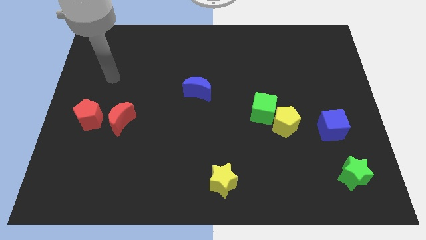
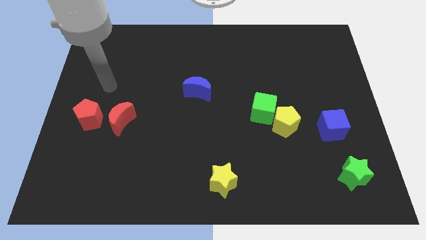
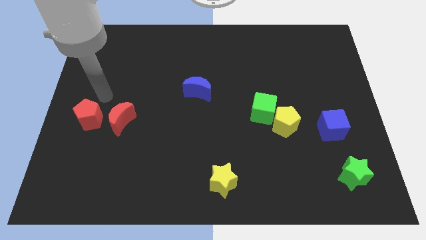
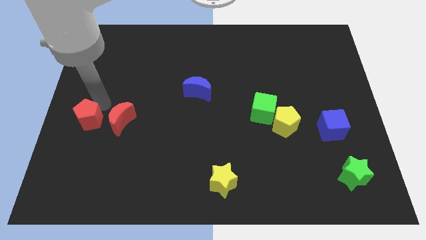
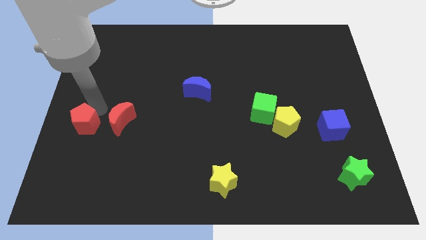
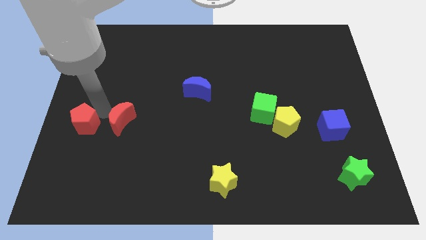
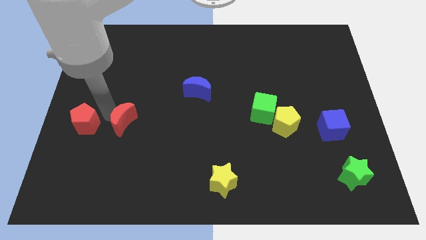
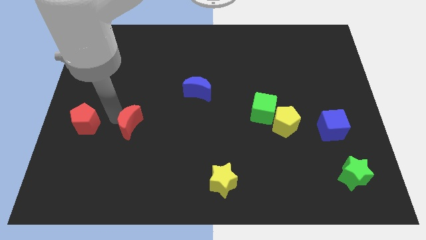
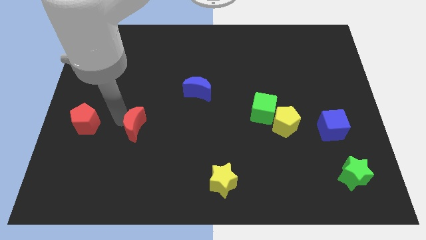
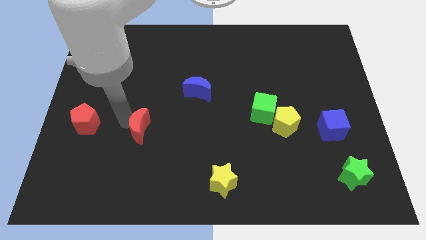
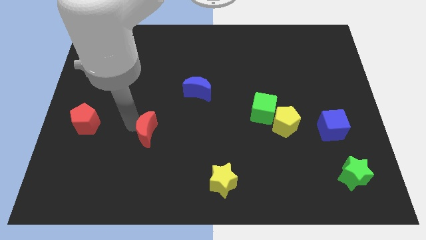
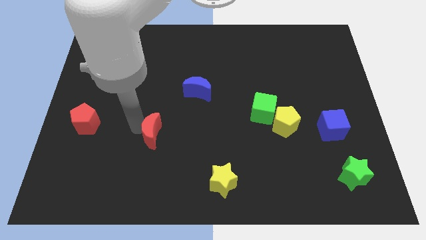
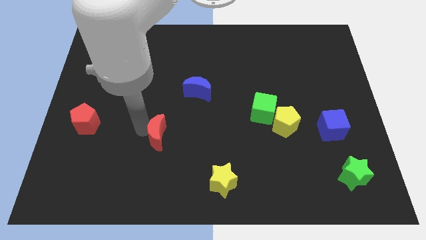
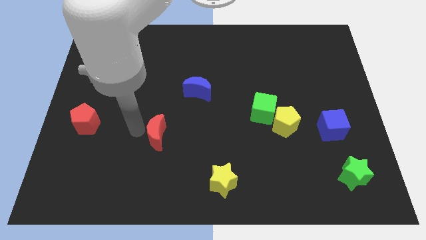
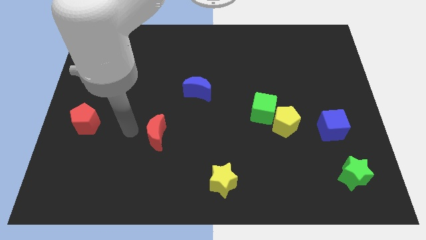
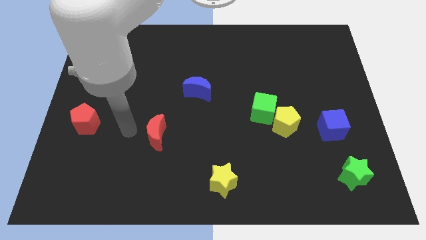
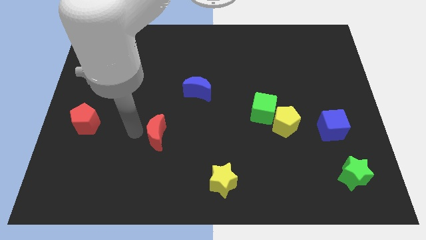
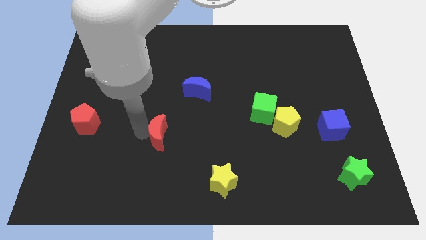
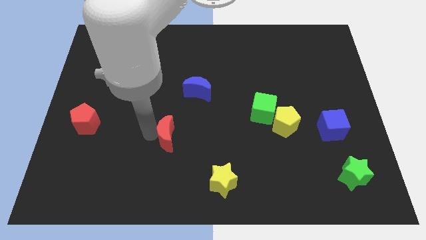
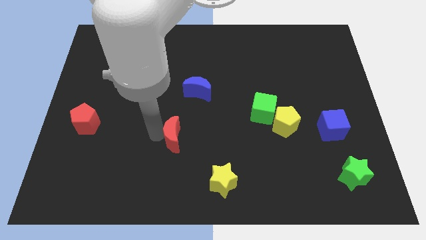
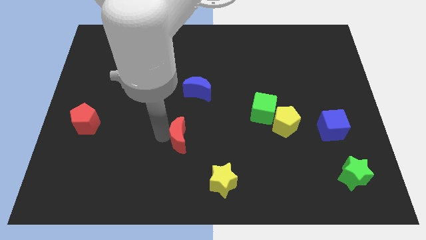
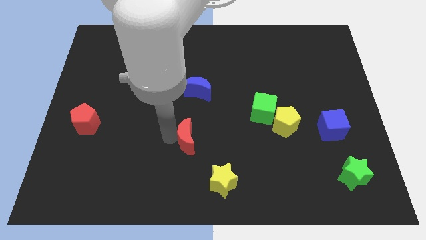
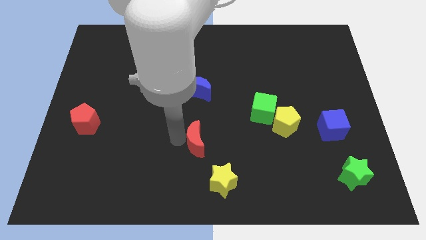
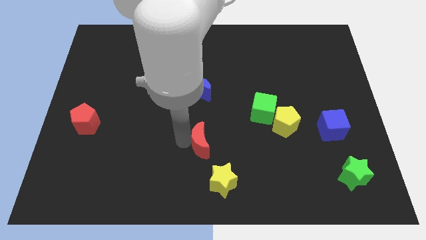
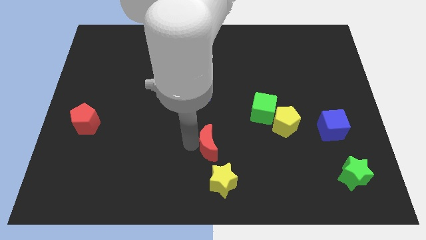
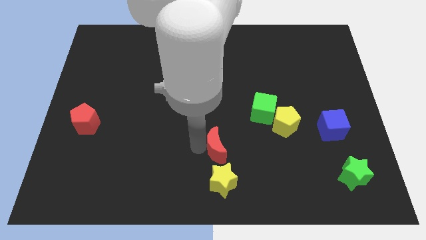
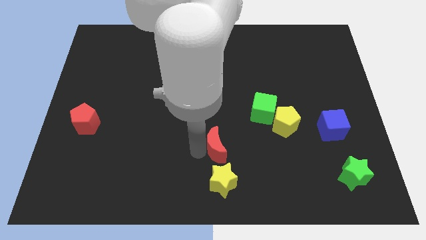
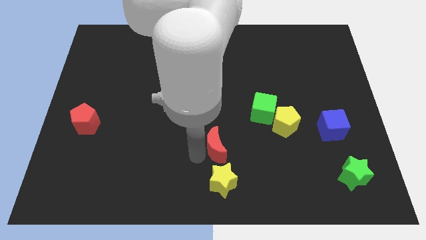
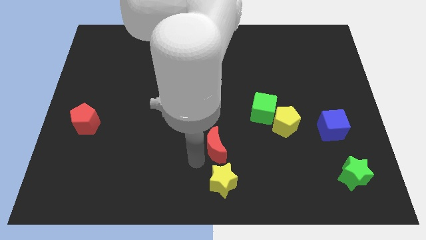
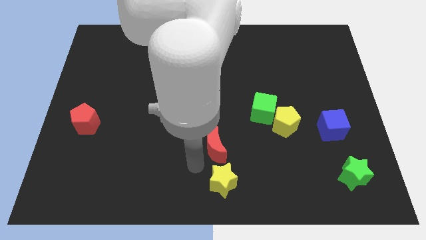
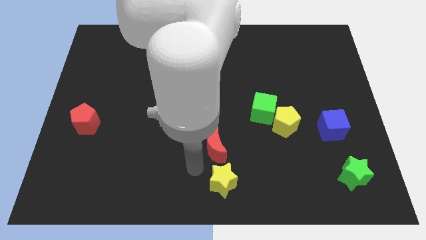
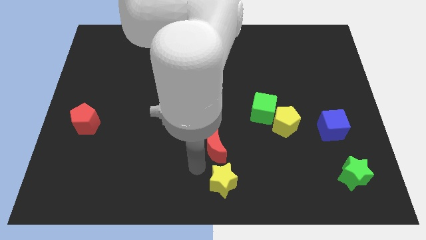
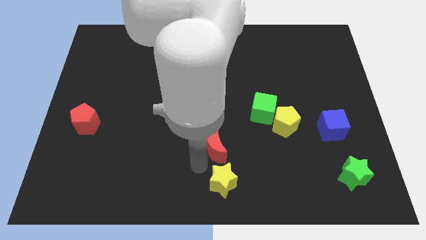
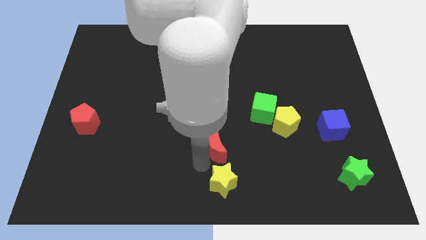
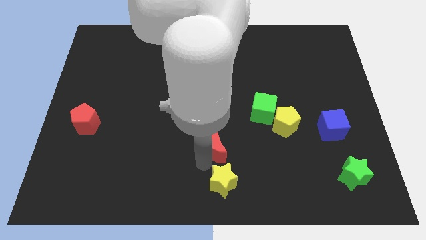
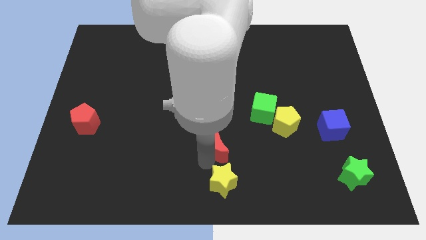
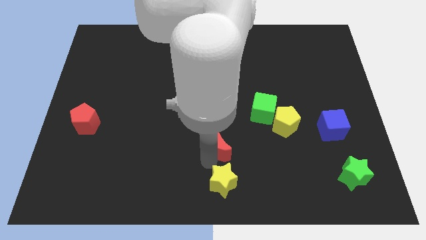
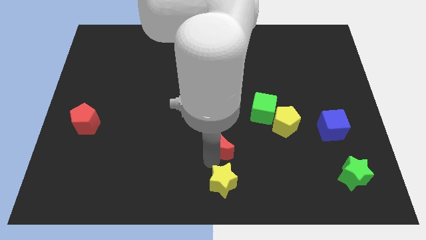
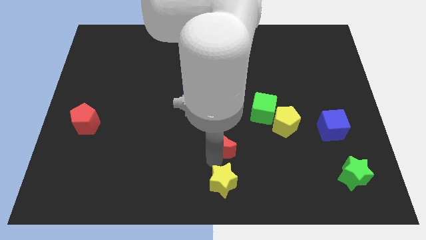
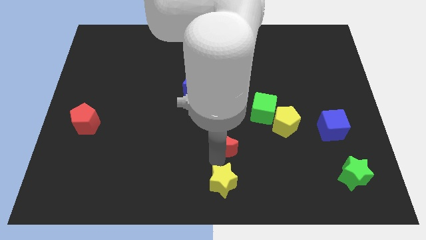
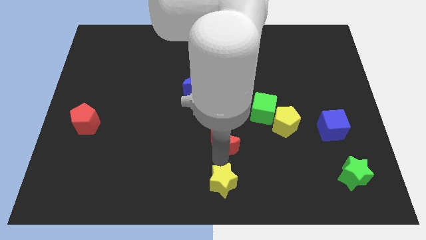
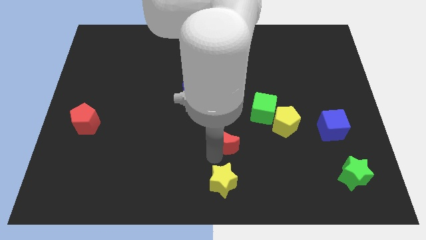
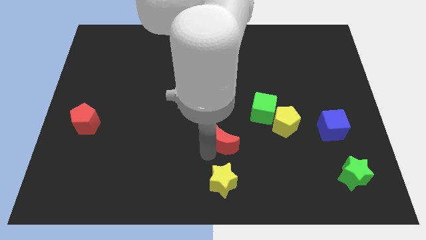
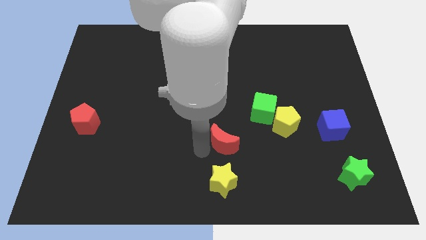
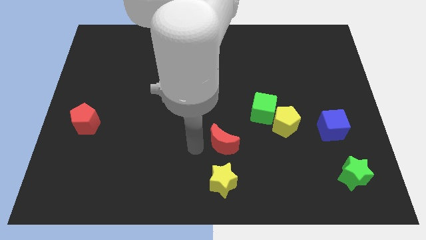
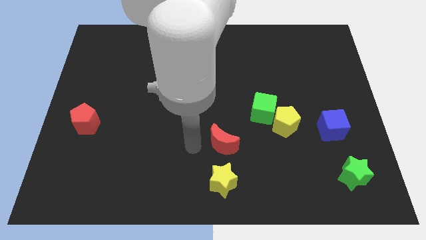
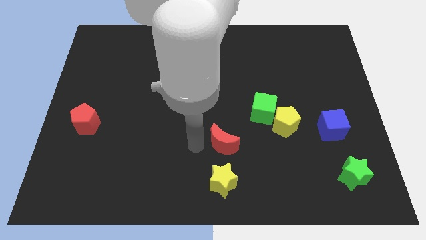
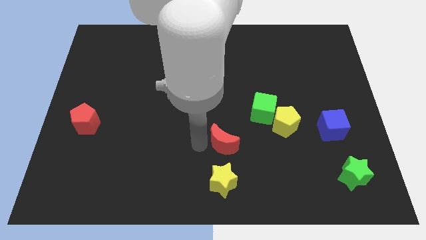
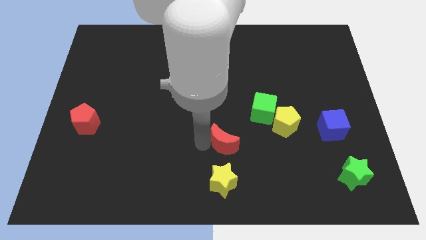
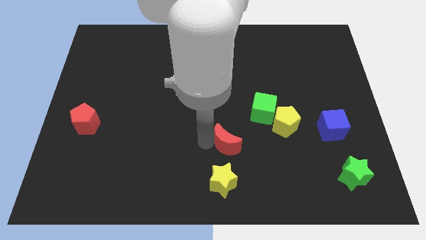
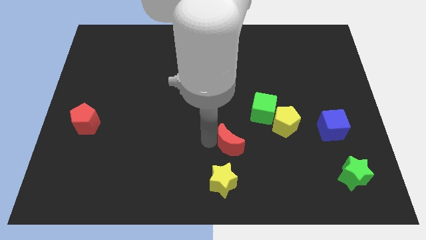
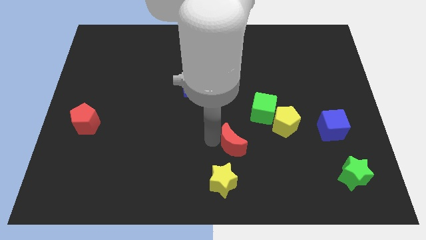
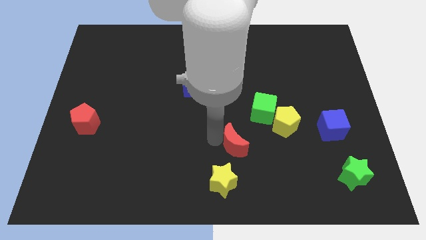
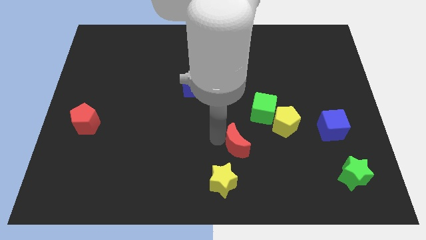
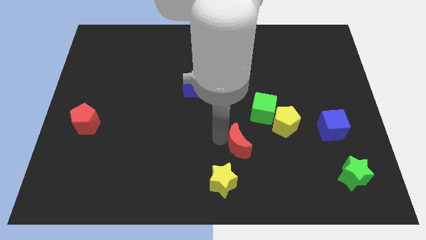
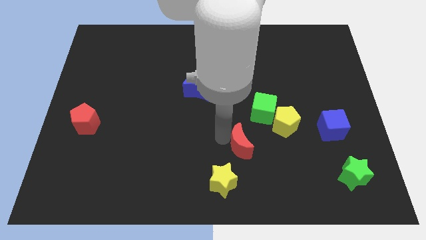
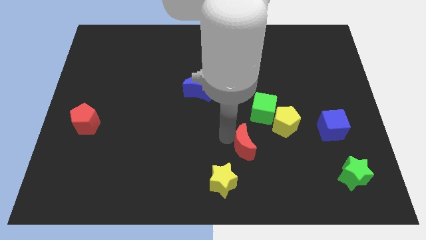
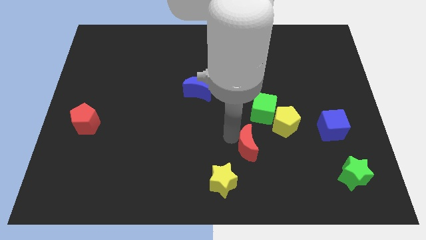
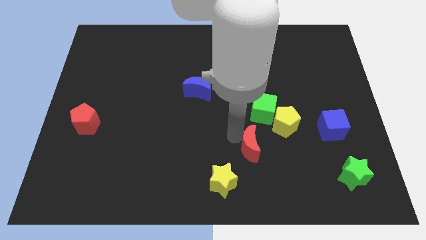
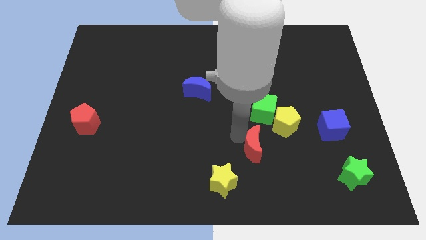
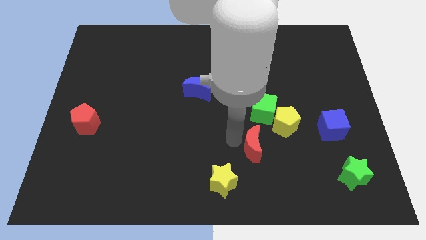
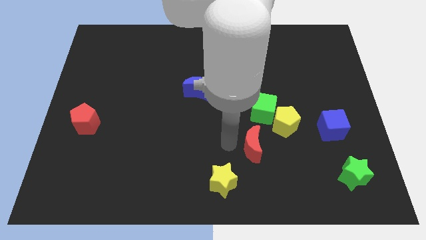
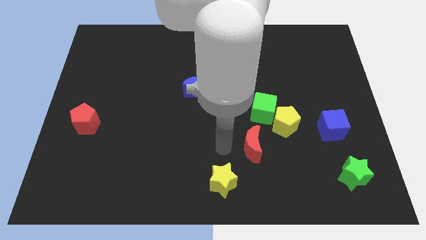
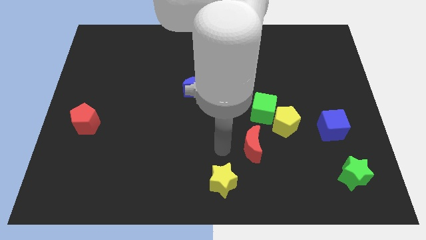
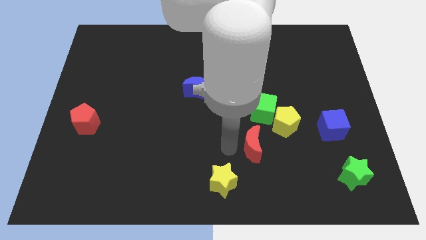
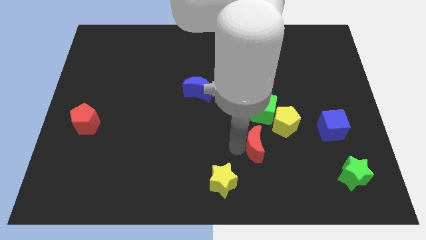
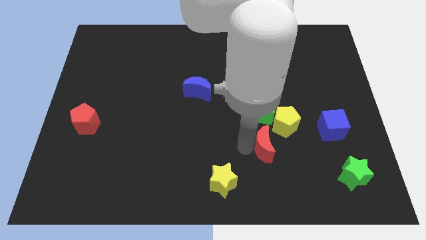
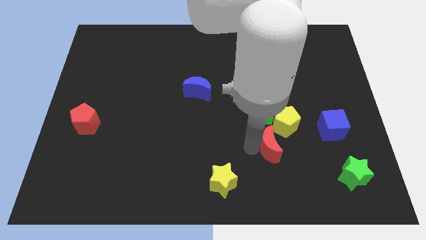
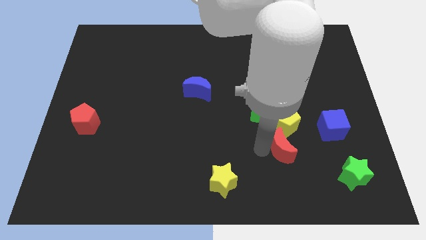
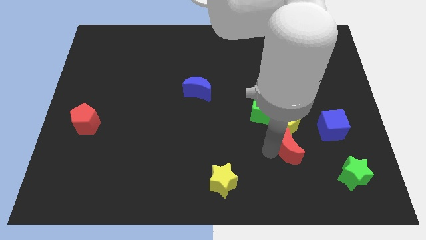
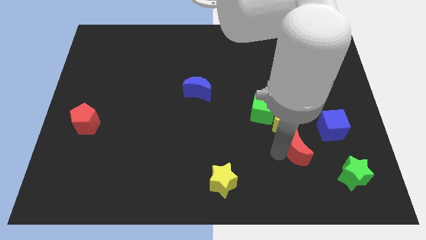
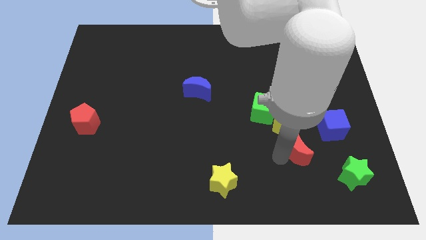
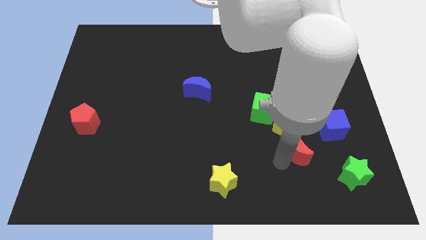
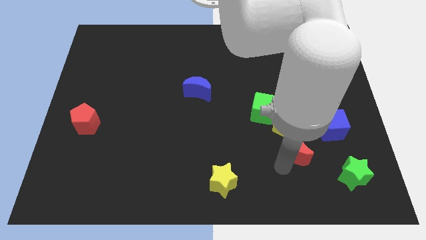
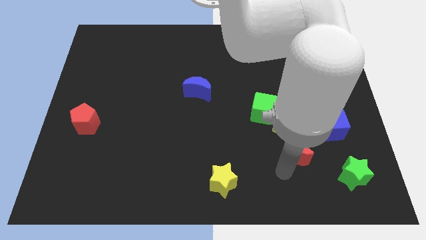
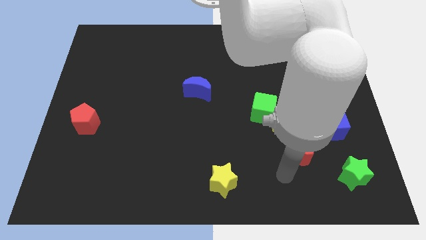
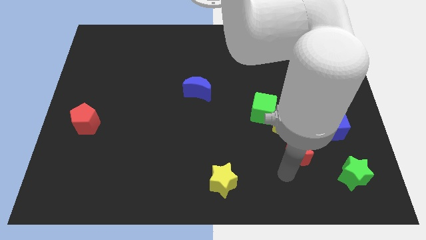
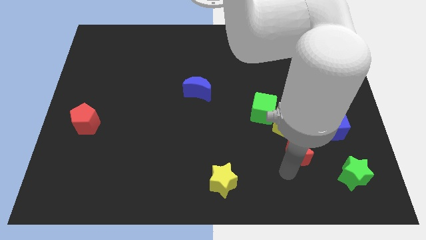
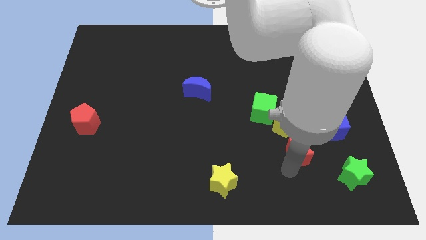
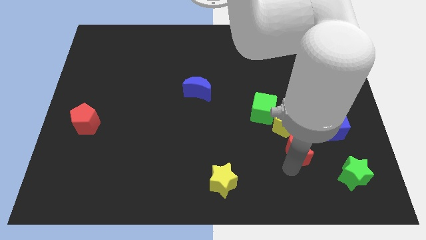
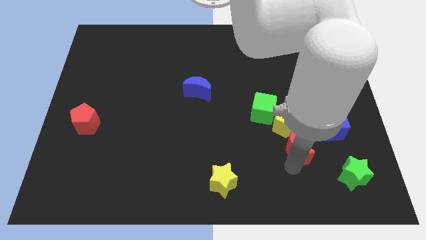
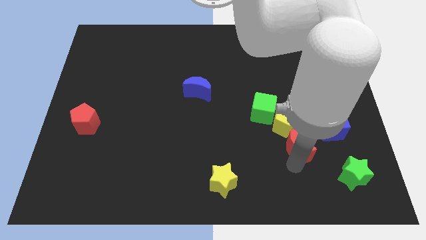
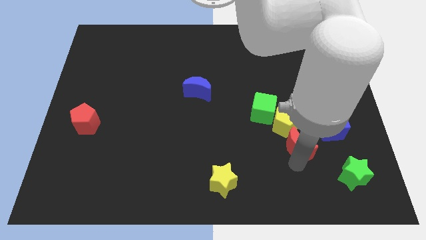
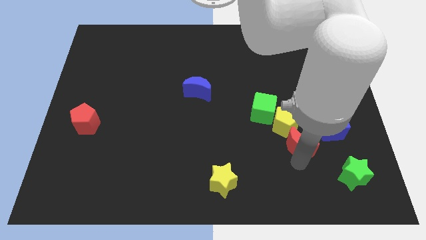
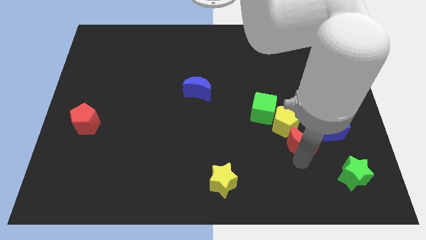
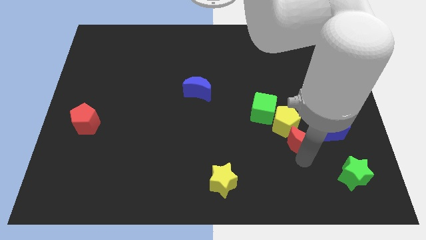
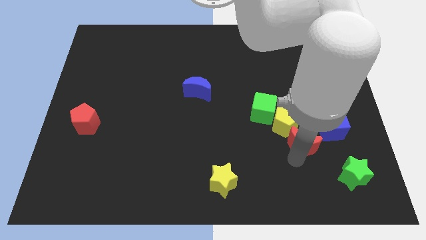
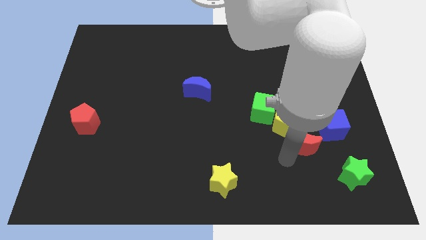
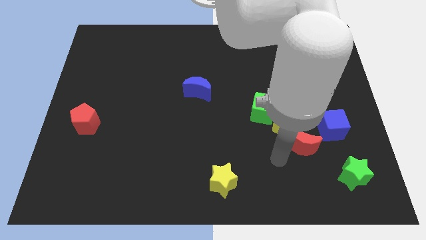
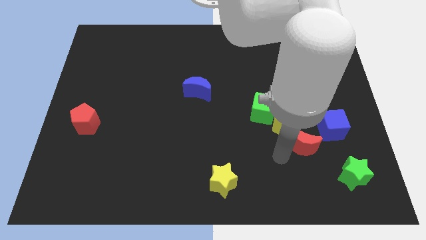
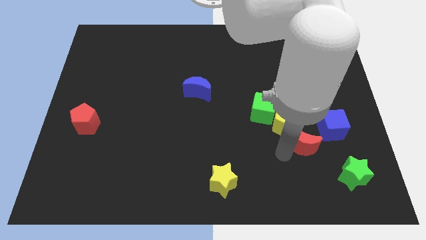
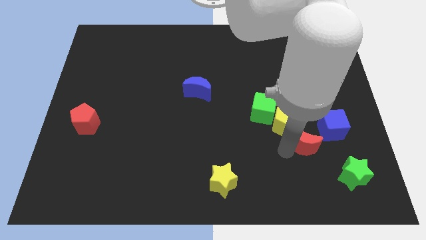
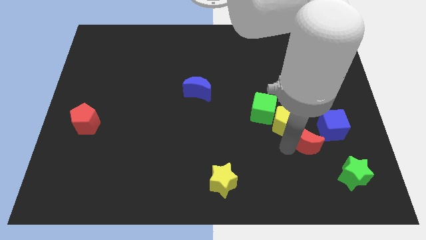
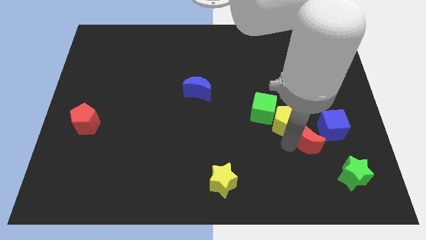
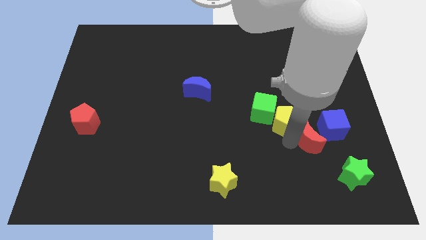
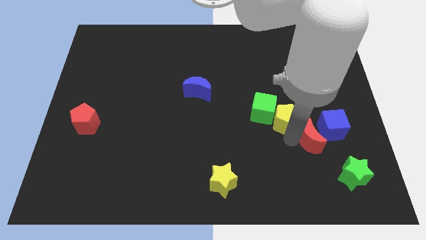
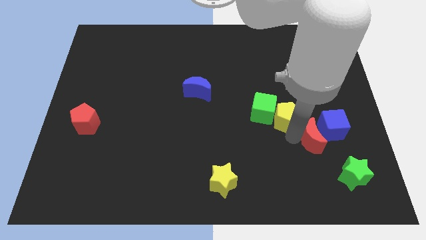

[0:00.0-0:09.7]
put the red moon to the blue cube
